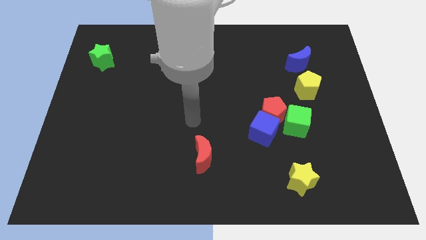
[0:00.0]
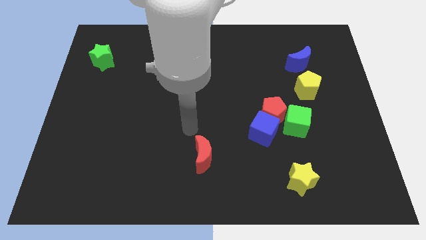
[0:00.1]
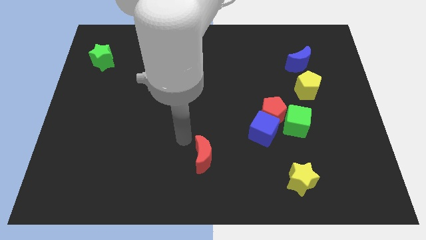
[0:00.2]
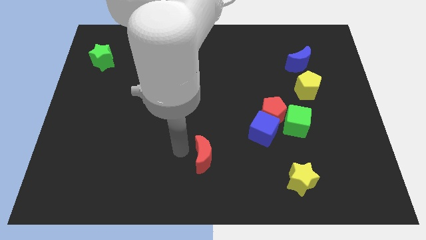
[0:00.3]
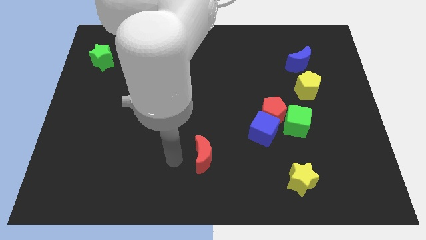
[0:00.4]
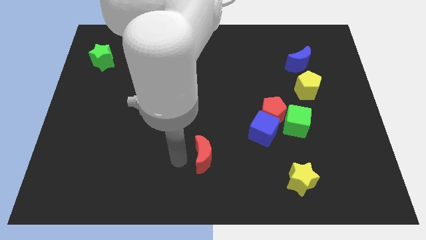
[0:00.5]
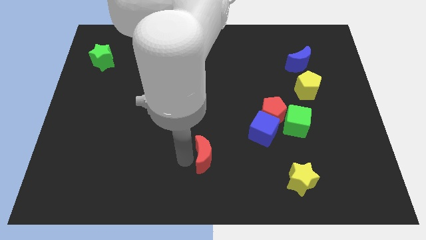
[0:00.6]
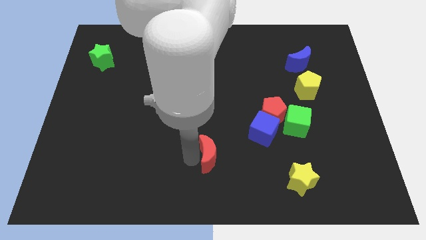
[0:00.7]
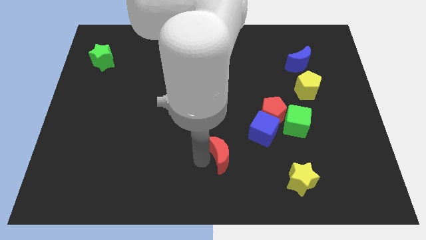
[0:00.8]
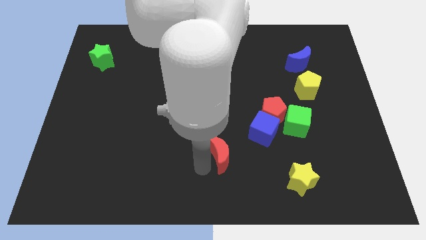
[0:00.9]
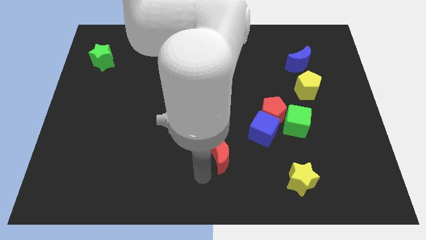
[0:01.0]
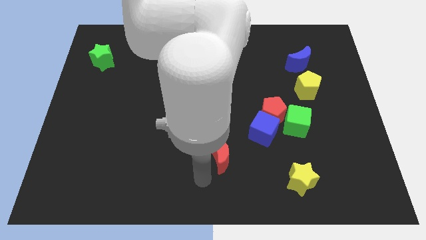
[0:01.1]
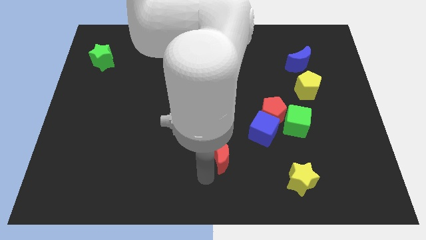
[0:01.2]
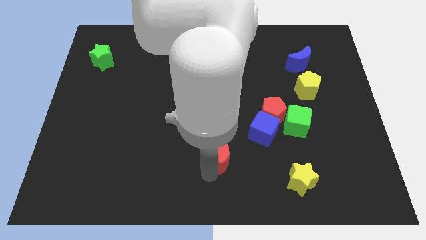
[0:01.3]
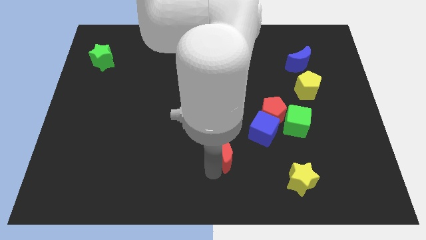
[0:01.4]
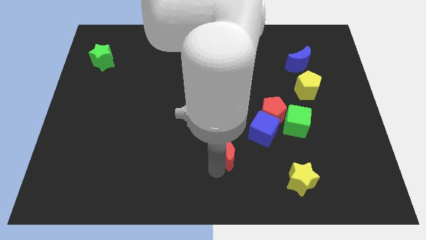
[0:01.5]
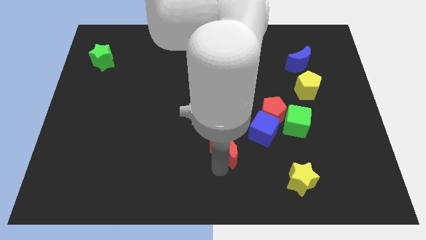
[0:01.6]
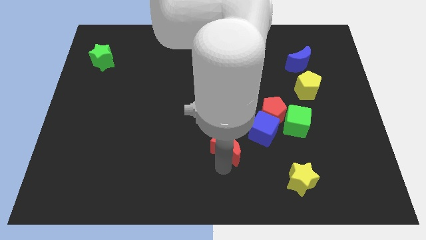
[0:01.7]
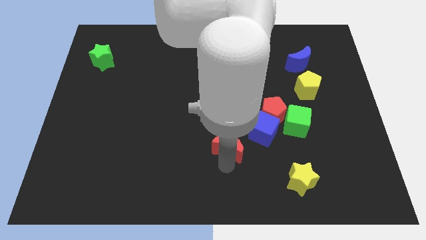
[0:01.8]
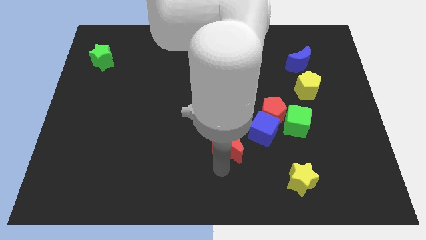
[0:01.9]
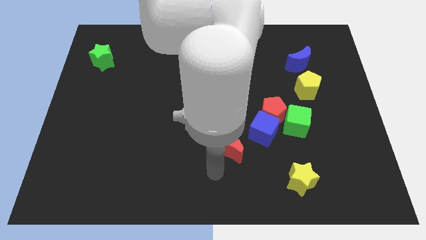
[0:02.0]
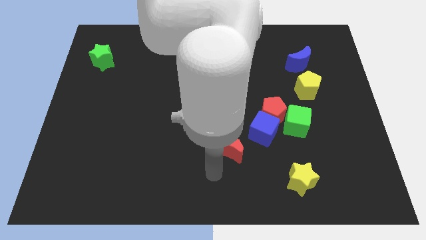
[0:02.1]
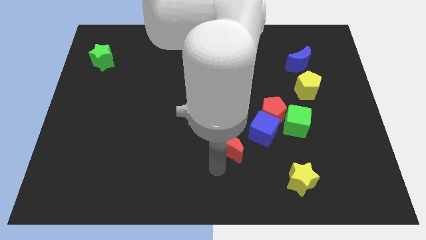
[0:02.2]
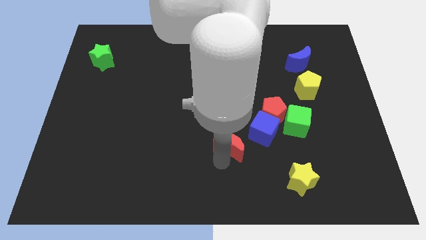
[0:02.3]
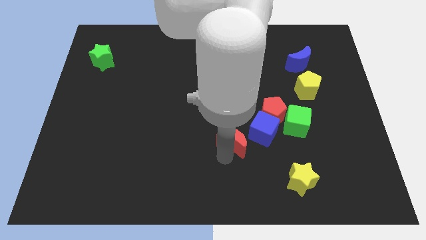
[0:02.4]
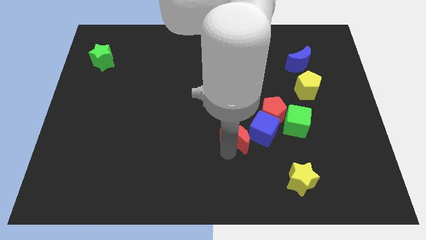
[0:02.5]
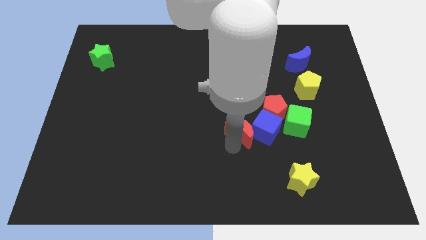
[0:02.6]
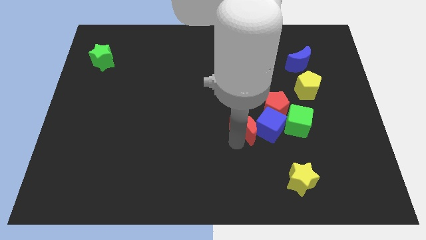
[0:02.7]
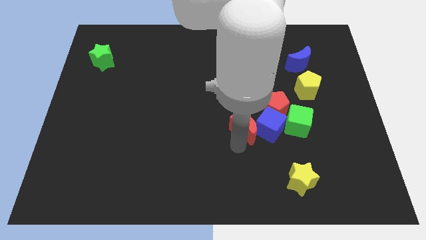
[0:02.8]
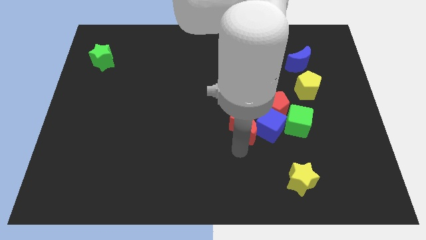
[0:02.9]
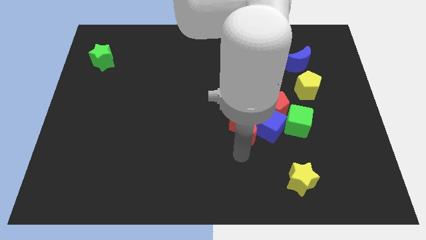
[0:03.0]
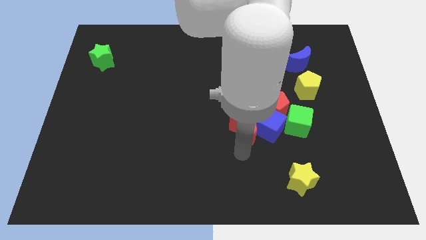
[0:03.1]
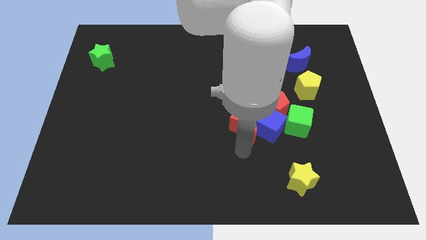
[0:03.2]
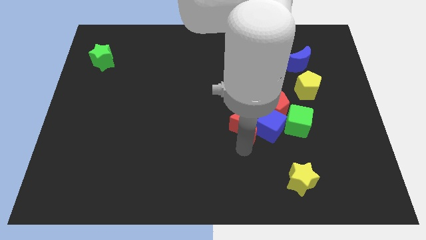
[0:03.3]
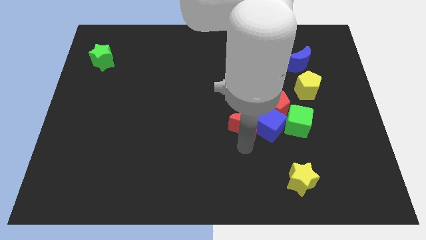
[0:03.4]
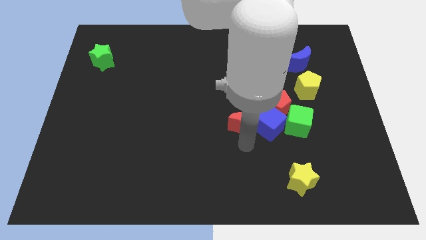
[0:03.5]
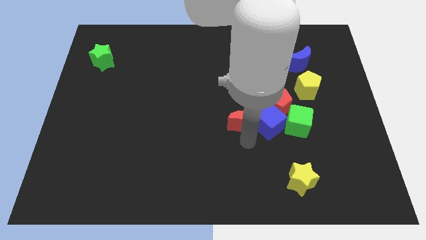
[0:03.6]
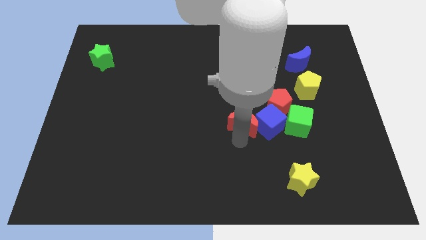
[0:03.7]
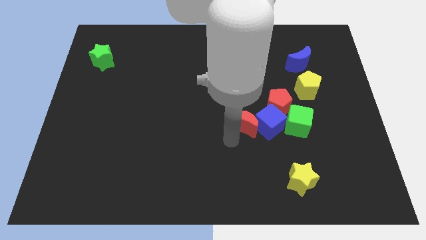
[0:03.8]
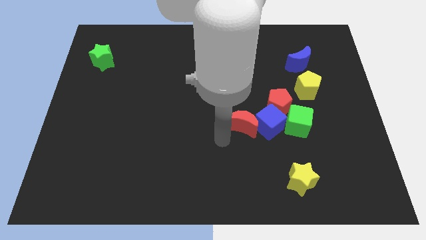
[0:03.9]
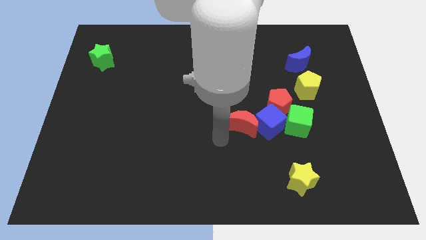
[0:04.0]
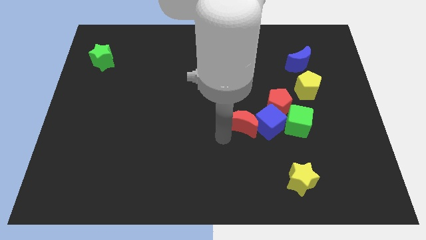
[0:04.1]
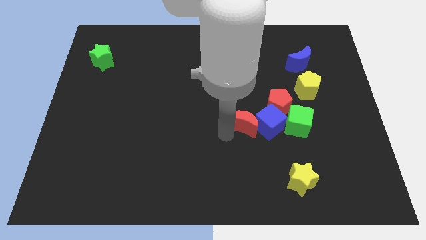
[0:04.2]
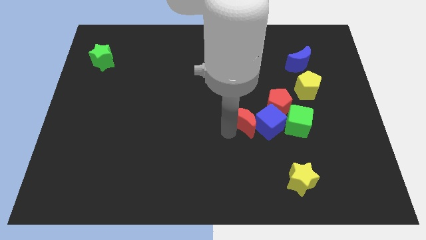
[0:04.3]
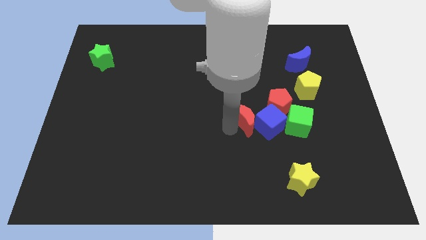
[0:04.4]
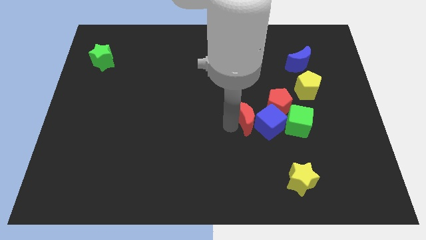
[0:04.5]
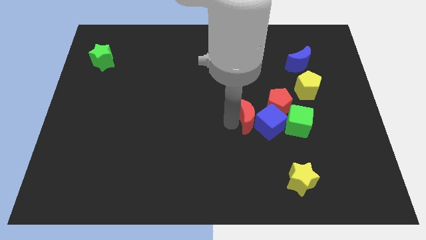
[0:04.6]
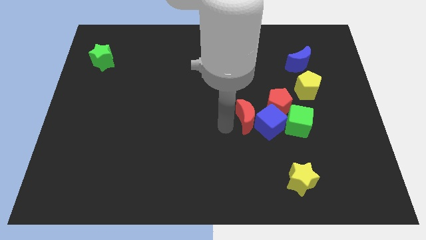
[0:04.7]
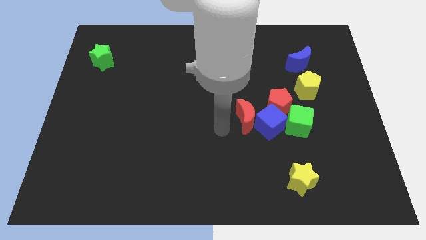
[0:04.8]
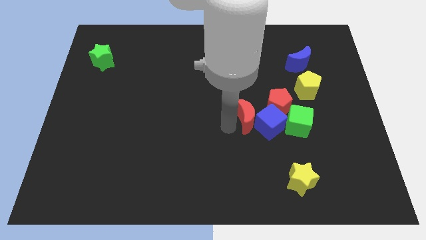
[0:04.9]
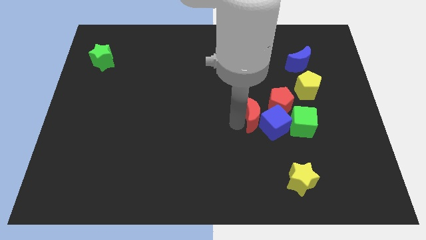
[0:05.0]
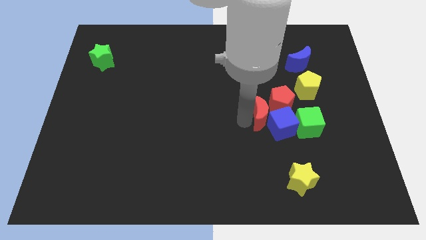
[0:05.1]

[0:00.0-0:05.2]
slide the red moon close to the red pentagon

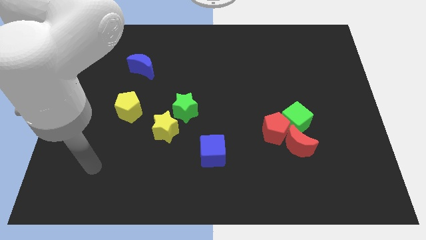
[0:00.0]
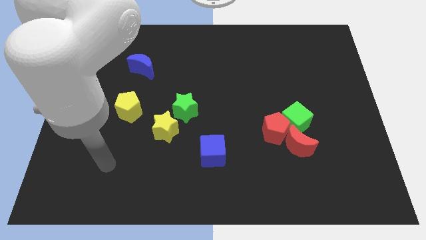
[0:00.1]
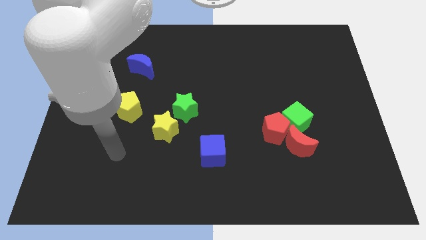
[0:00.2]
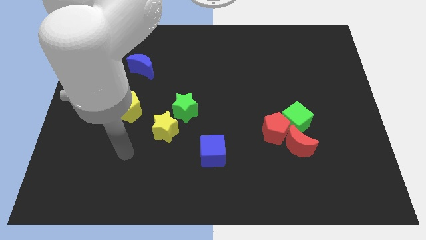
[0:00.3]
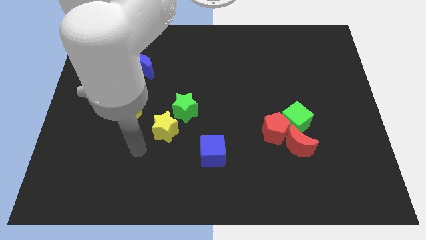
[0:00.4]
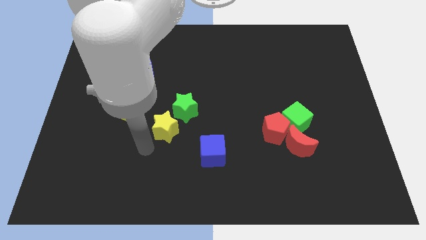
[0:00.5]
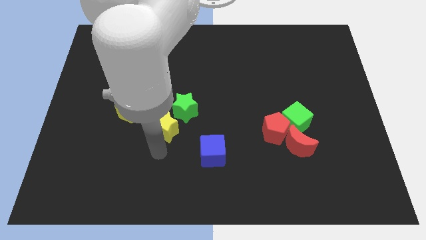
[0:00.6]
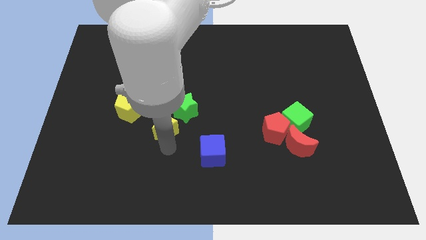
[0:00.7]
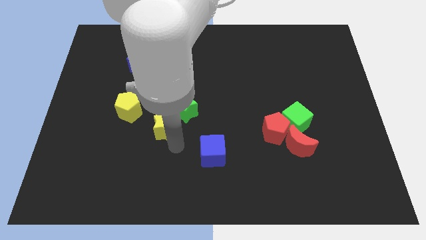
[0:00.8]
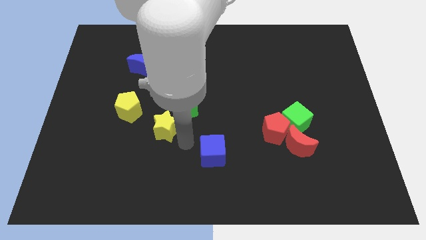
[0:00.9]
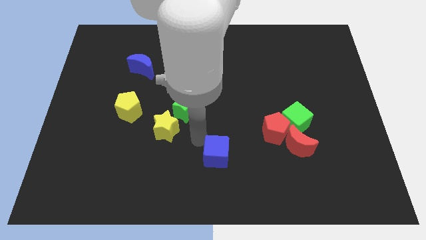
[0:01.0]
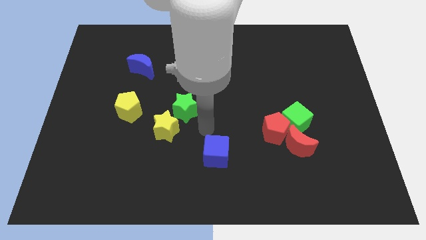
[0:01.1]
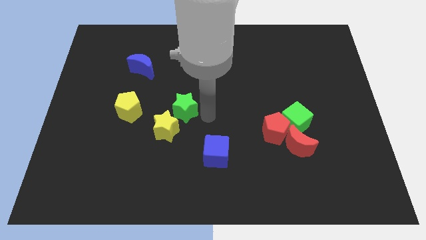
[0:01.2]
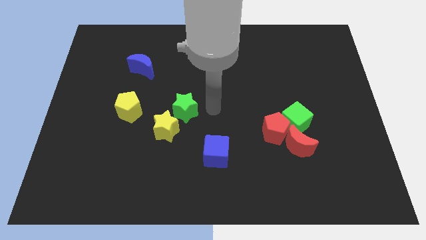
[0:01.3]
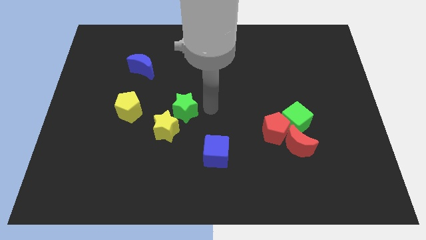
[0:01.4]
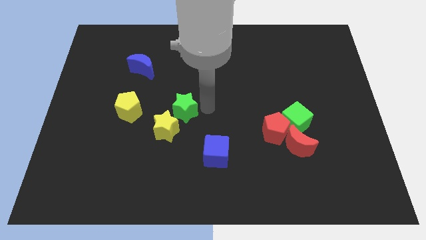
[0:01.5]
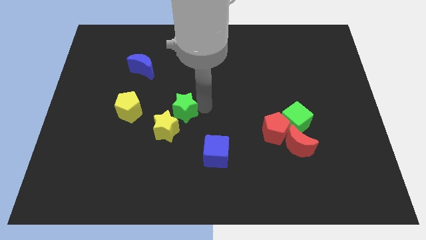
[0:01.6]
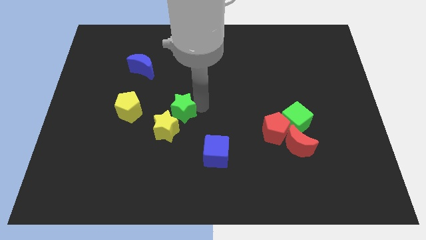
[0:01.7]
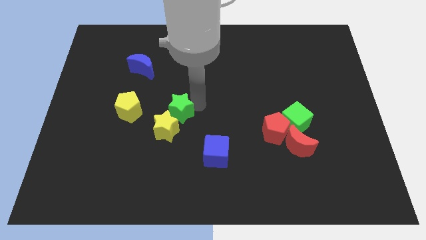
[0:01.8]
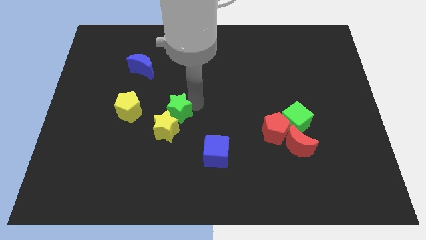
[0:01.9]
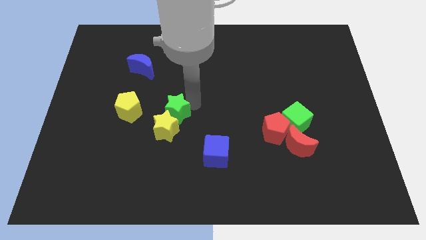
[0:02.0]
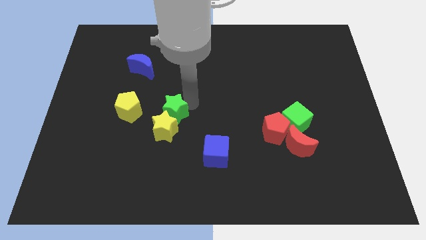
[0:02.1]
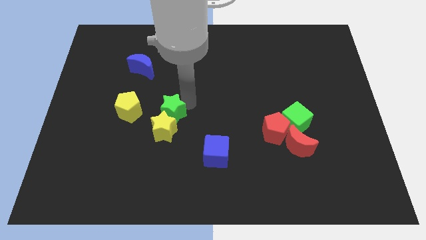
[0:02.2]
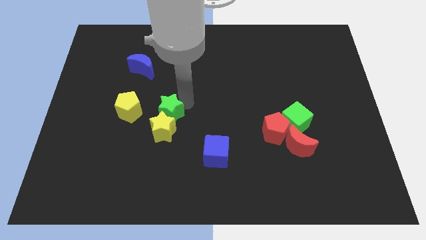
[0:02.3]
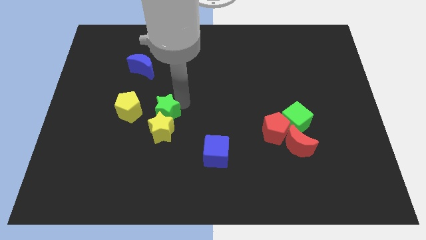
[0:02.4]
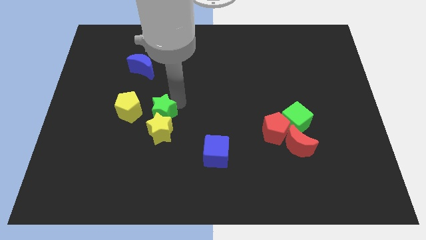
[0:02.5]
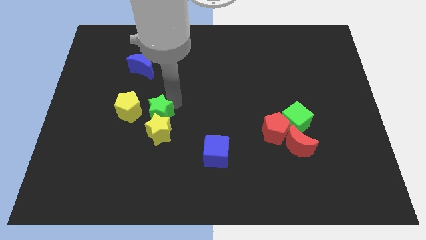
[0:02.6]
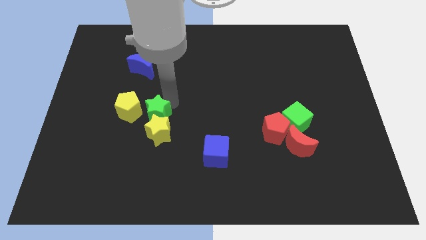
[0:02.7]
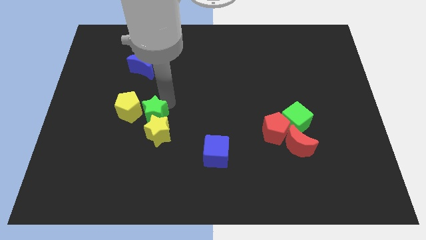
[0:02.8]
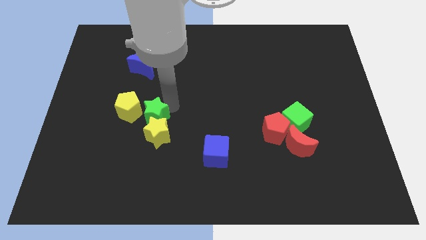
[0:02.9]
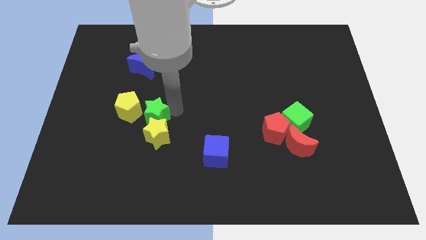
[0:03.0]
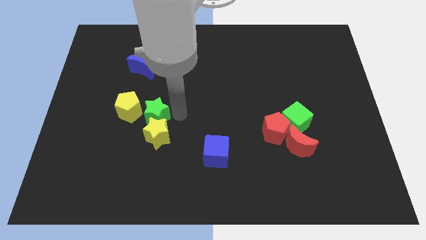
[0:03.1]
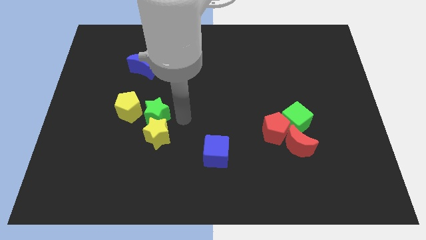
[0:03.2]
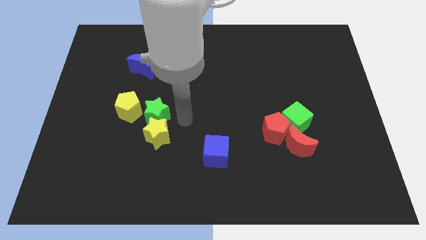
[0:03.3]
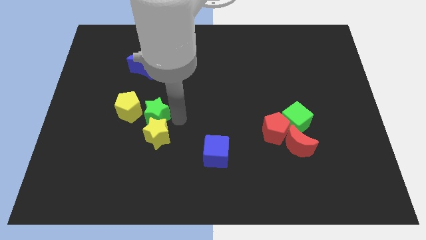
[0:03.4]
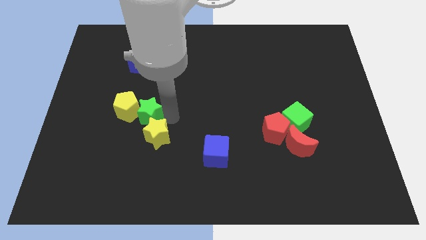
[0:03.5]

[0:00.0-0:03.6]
slide the green star next to the yellow pentagon
